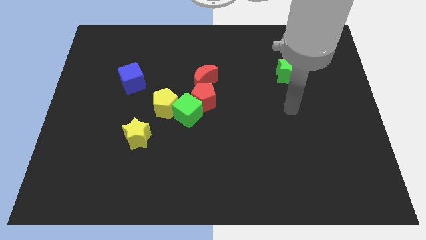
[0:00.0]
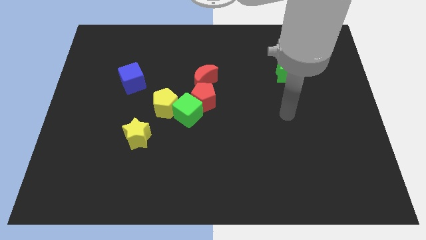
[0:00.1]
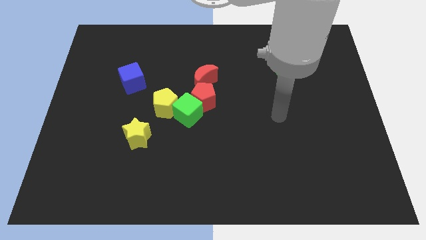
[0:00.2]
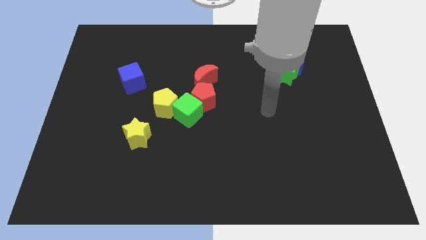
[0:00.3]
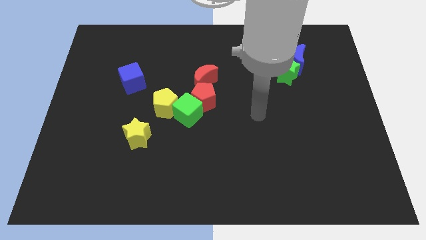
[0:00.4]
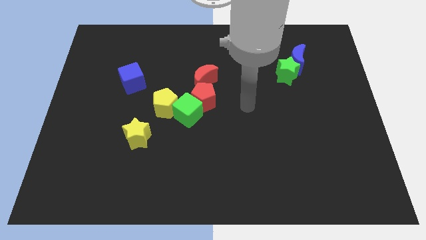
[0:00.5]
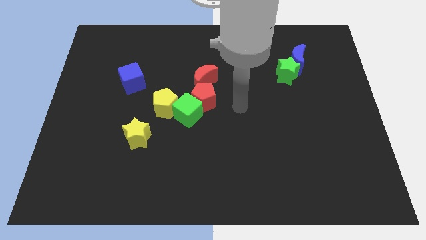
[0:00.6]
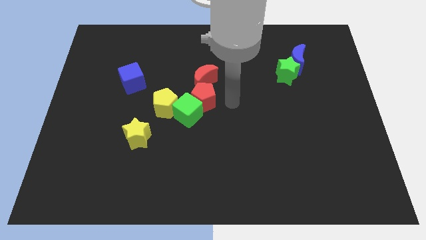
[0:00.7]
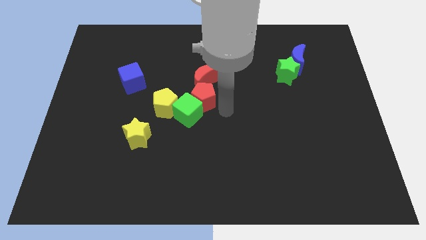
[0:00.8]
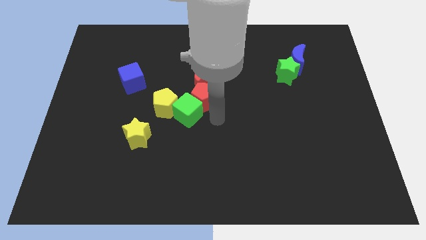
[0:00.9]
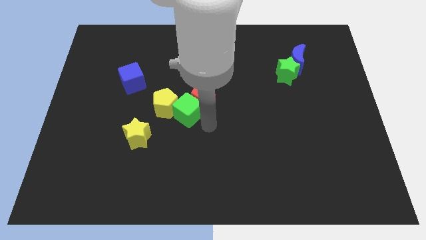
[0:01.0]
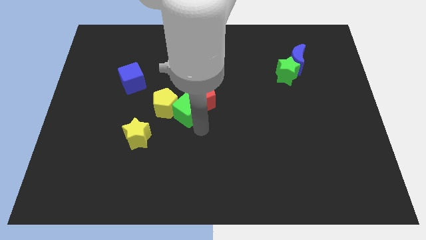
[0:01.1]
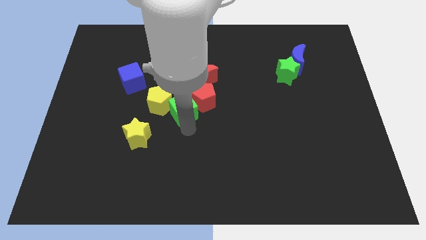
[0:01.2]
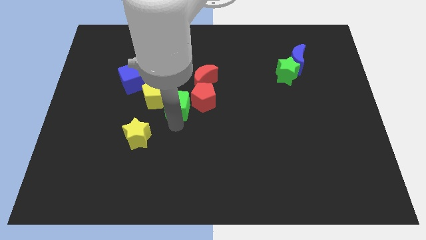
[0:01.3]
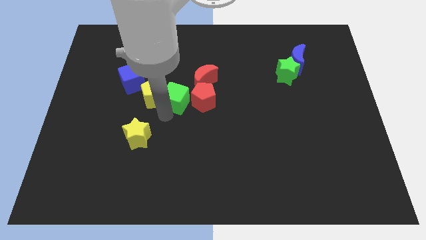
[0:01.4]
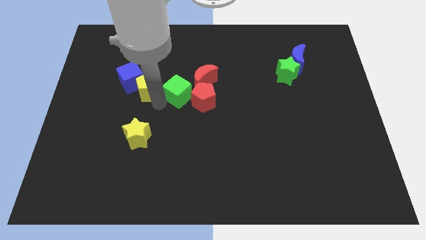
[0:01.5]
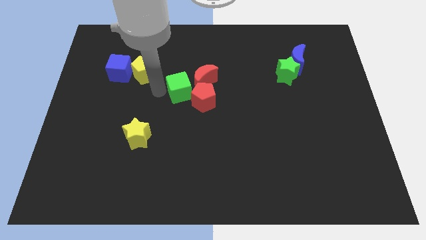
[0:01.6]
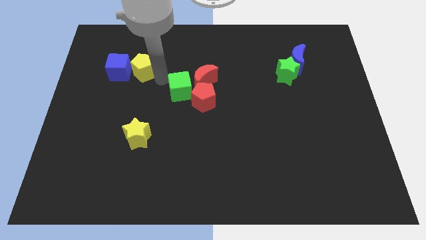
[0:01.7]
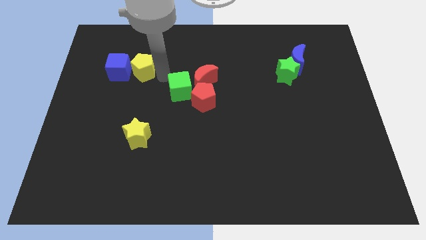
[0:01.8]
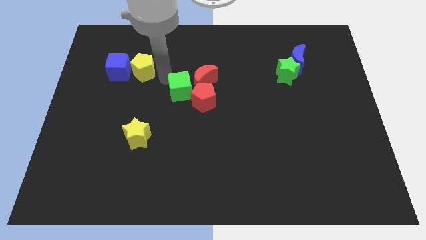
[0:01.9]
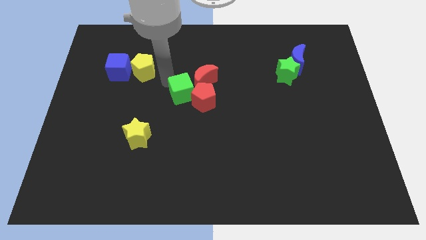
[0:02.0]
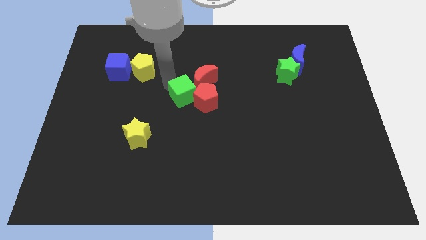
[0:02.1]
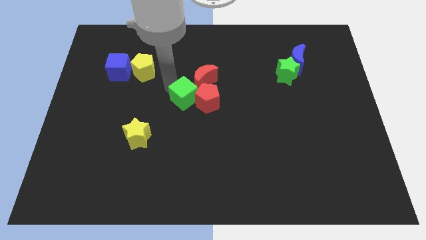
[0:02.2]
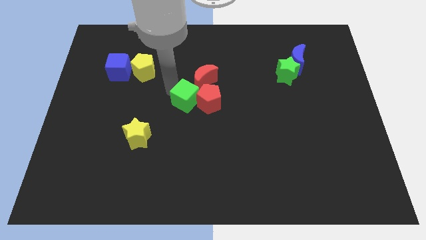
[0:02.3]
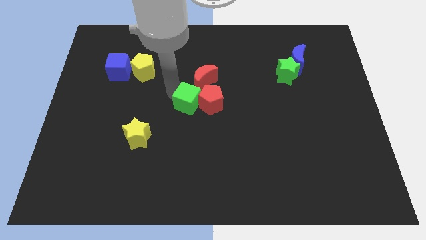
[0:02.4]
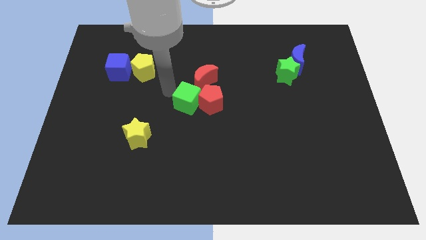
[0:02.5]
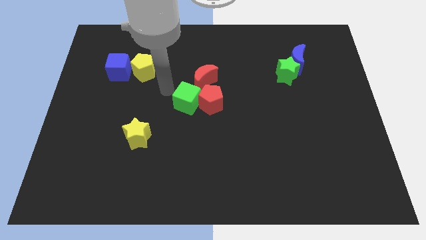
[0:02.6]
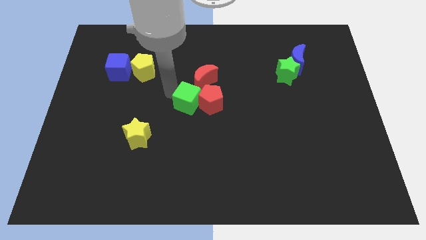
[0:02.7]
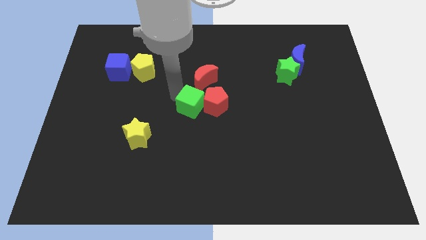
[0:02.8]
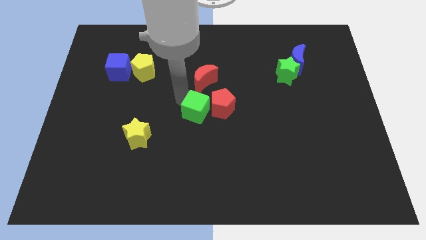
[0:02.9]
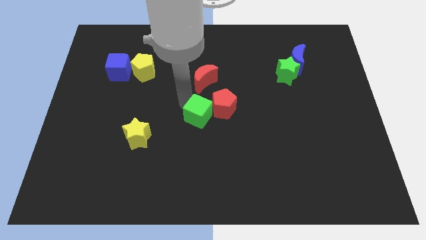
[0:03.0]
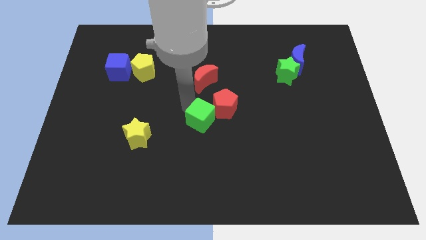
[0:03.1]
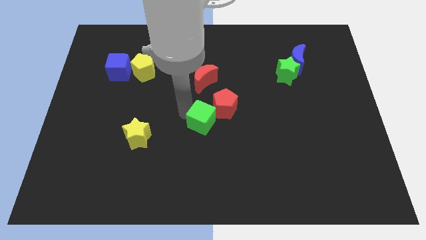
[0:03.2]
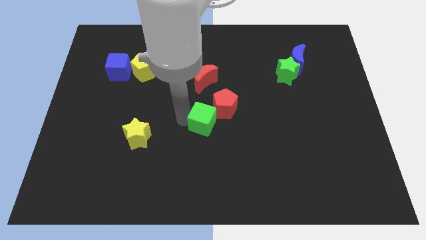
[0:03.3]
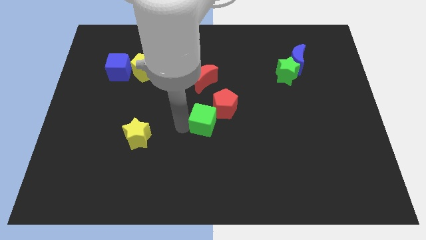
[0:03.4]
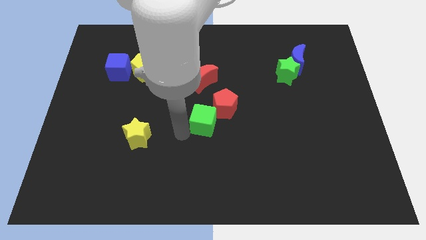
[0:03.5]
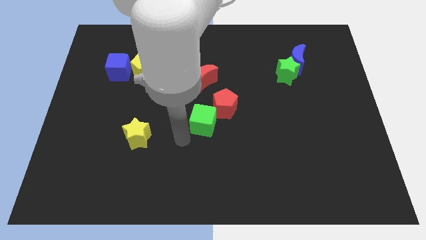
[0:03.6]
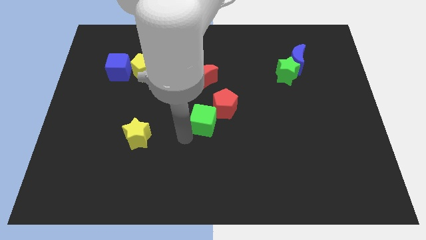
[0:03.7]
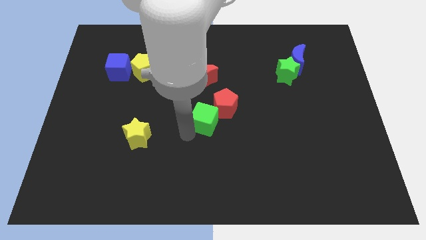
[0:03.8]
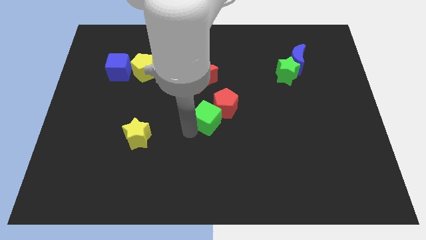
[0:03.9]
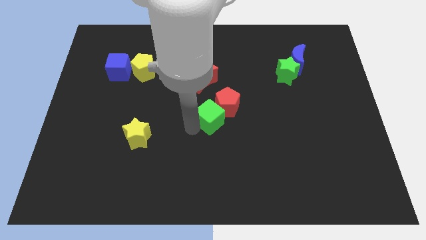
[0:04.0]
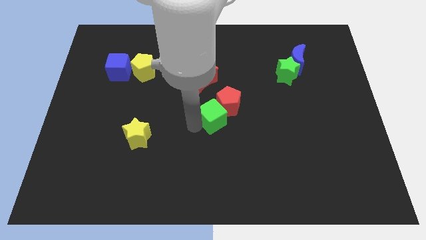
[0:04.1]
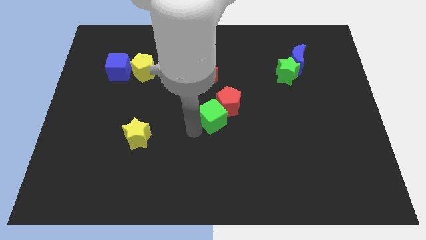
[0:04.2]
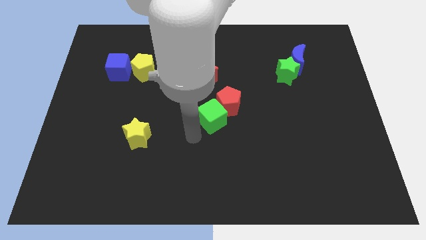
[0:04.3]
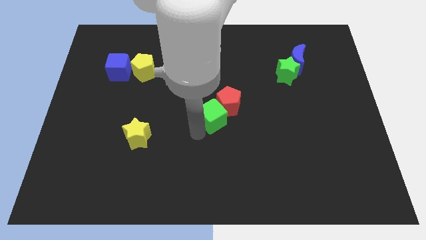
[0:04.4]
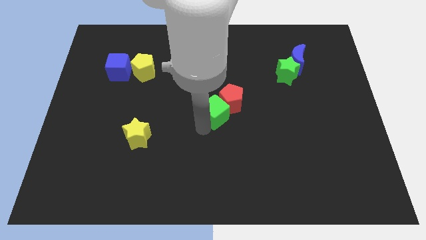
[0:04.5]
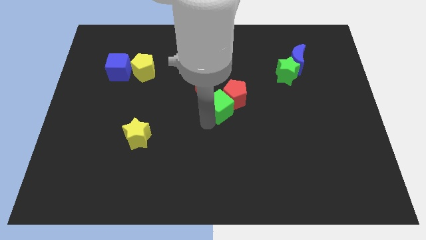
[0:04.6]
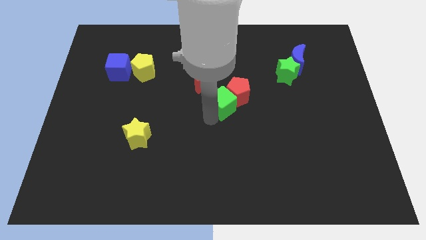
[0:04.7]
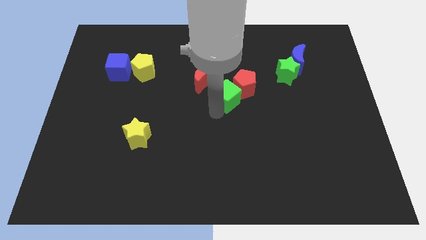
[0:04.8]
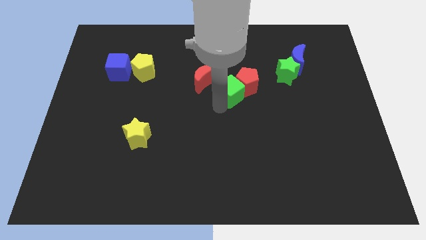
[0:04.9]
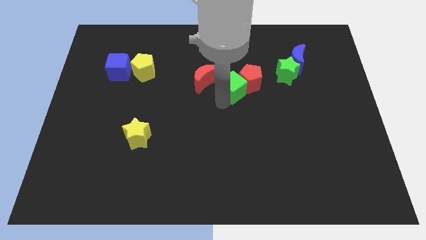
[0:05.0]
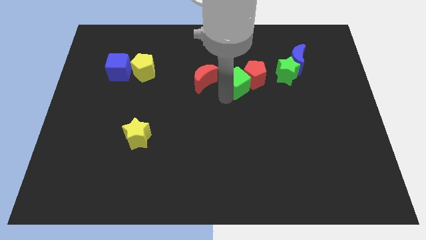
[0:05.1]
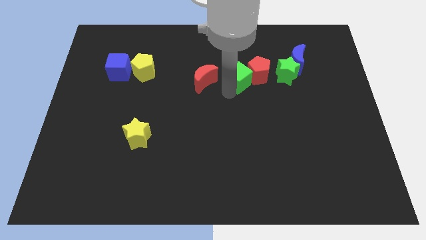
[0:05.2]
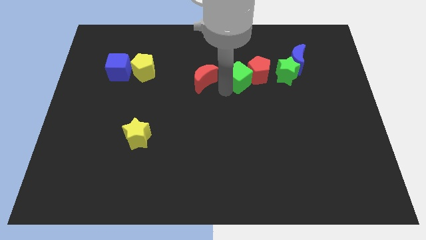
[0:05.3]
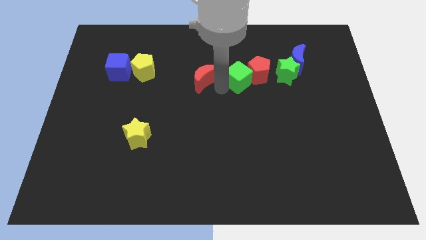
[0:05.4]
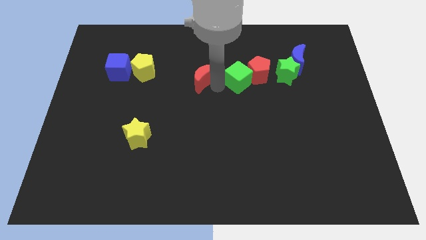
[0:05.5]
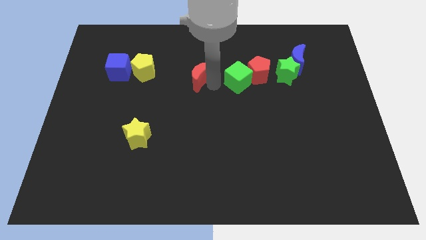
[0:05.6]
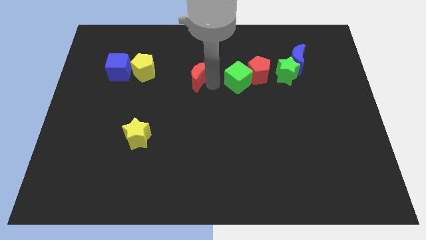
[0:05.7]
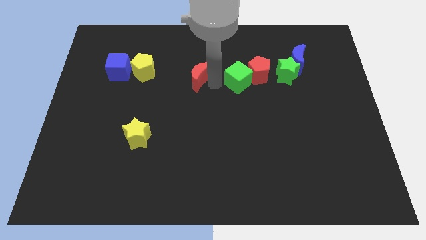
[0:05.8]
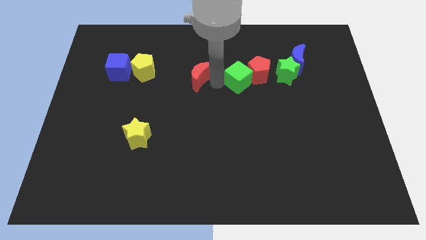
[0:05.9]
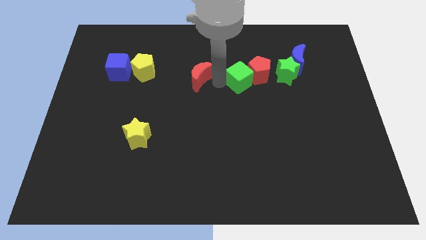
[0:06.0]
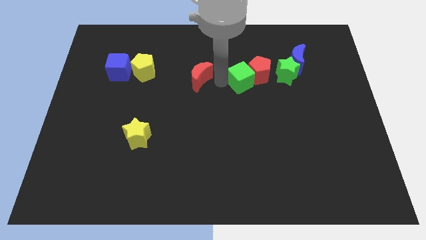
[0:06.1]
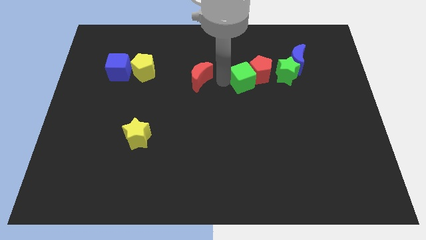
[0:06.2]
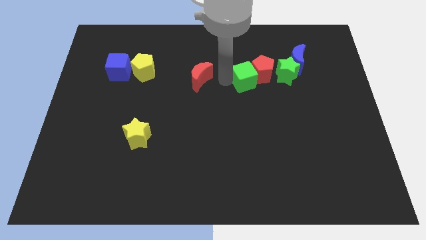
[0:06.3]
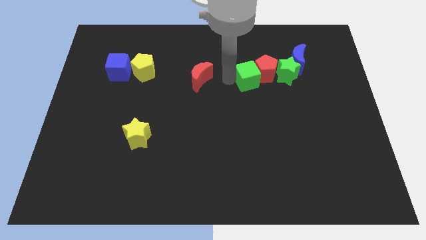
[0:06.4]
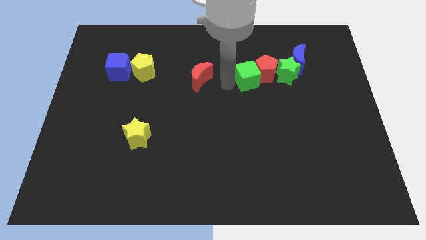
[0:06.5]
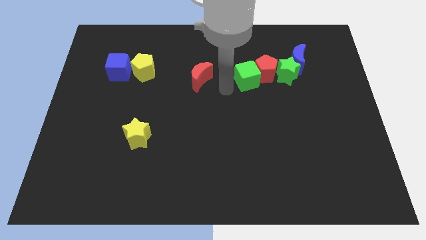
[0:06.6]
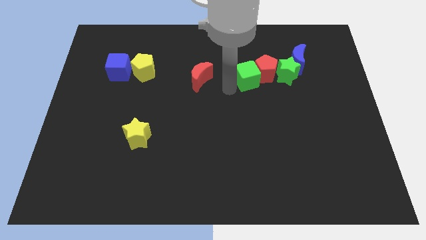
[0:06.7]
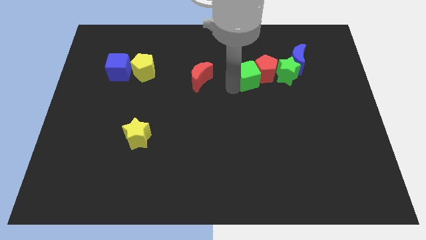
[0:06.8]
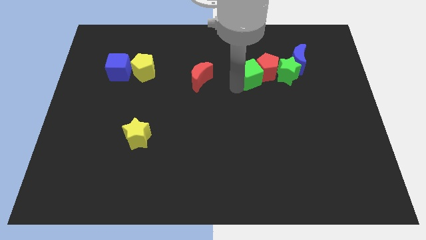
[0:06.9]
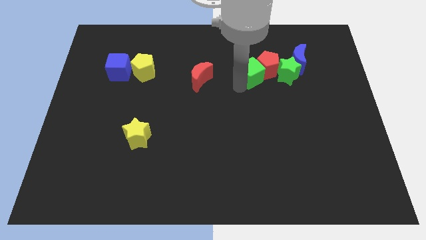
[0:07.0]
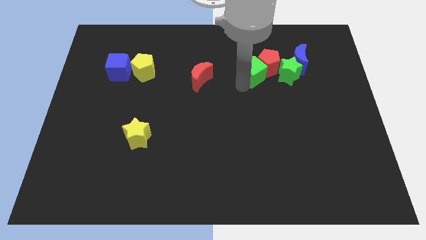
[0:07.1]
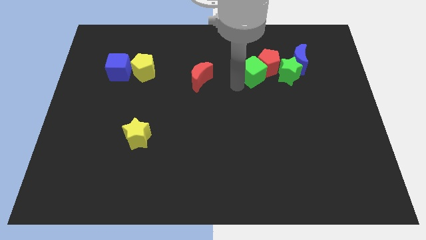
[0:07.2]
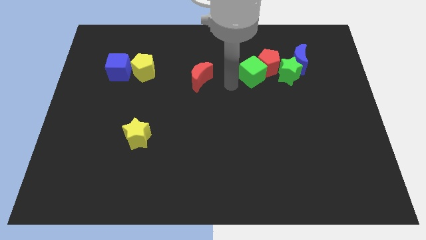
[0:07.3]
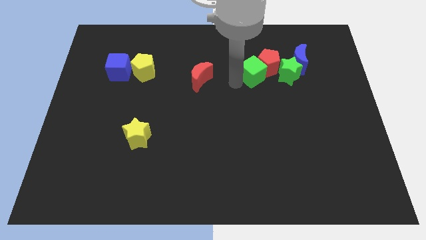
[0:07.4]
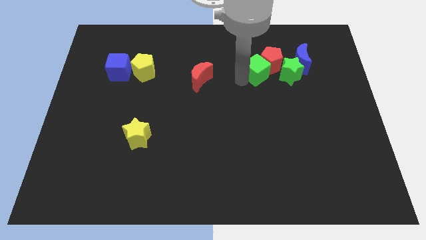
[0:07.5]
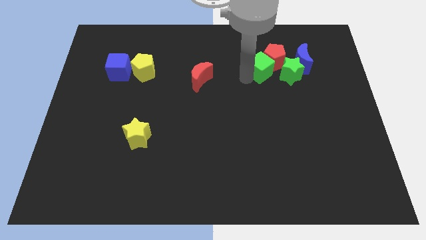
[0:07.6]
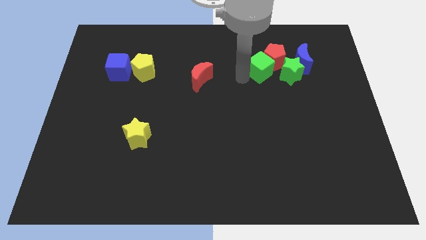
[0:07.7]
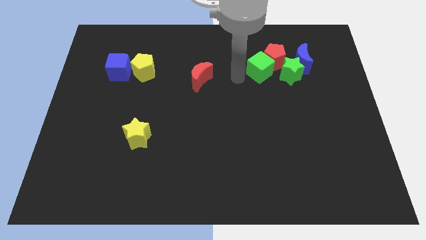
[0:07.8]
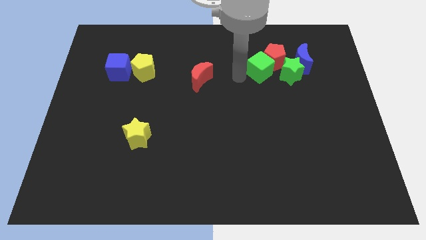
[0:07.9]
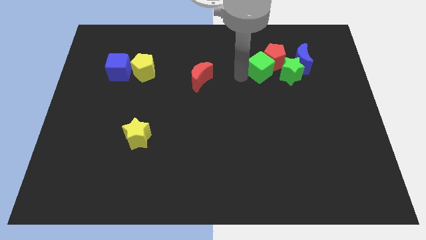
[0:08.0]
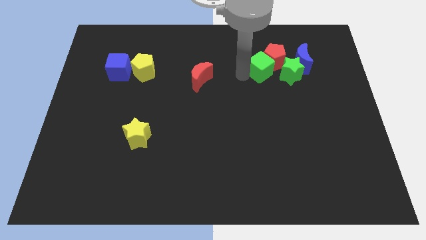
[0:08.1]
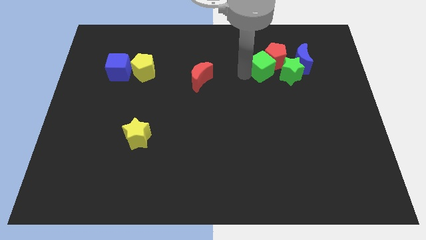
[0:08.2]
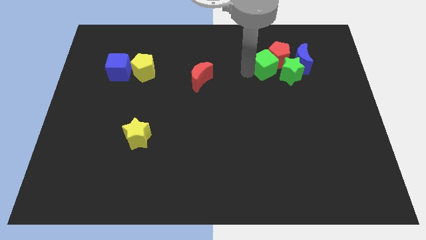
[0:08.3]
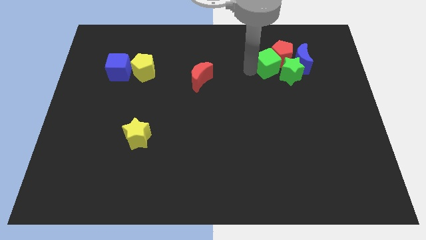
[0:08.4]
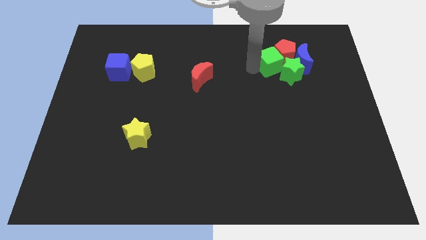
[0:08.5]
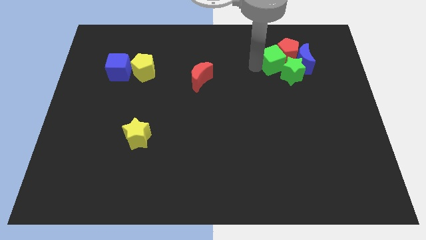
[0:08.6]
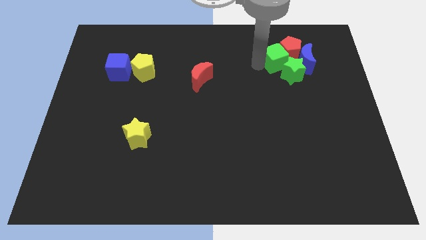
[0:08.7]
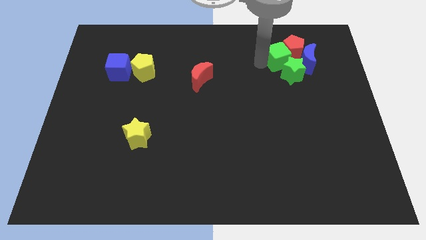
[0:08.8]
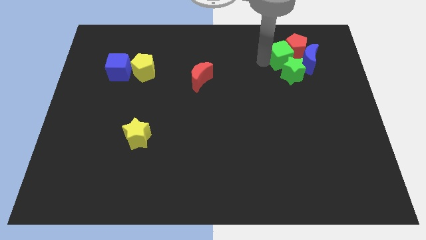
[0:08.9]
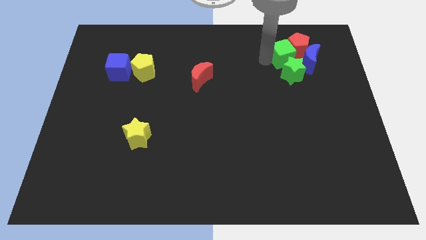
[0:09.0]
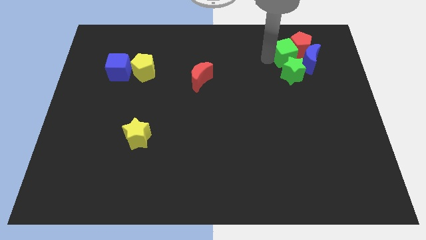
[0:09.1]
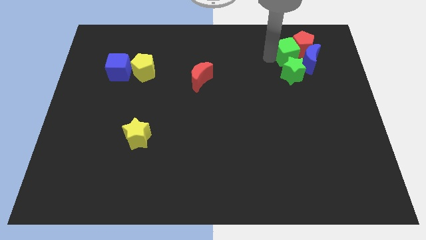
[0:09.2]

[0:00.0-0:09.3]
slide the green cube next to the blue moon
